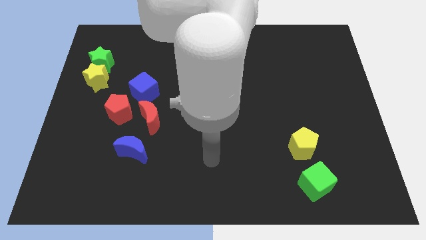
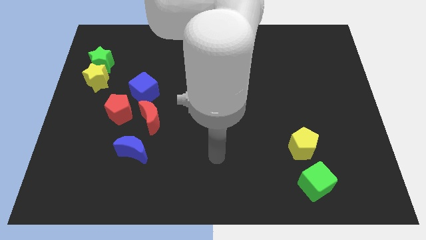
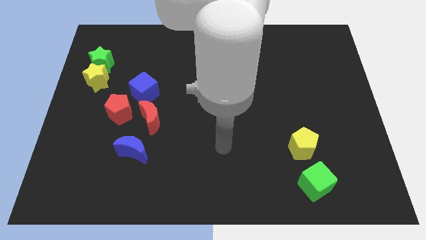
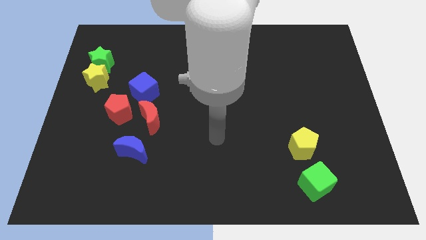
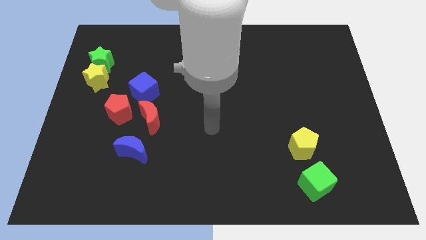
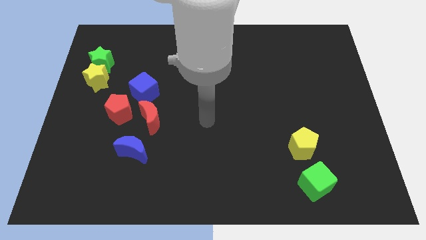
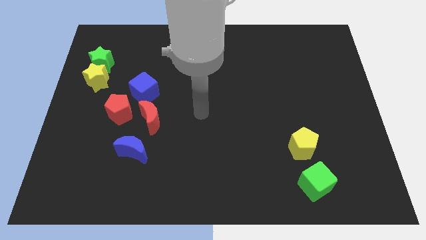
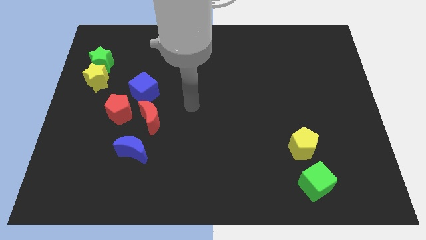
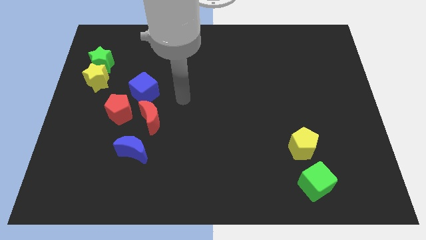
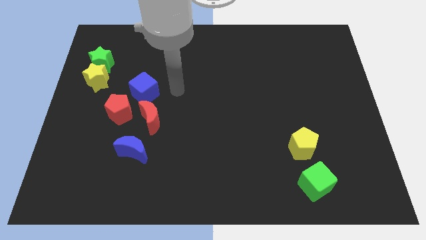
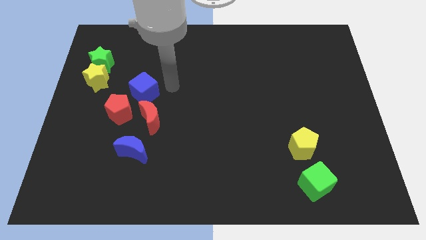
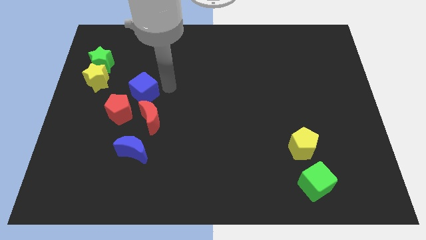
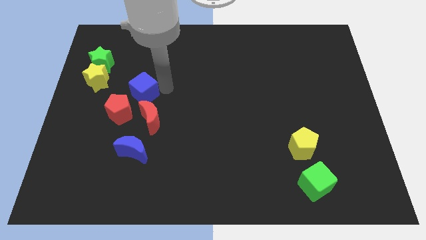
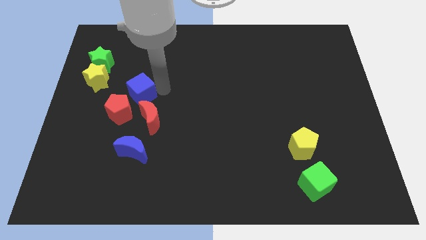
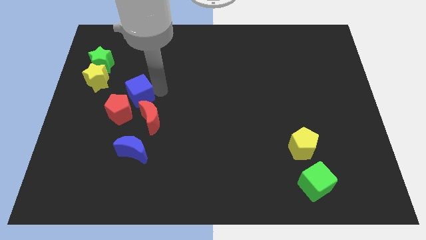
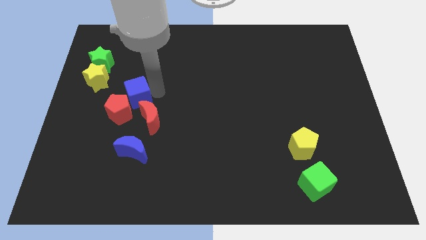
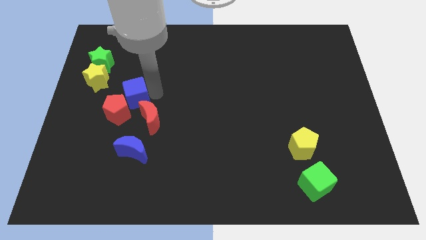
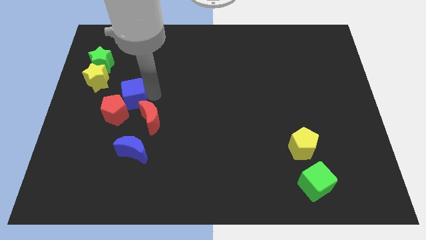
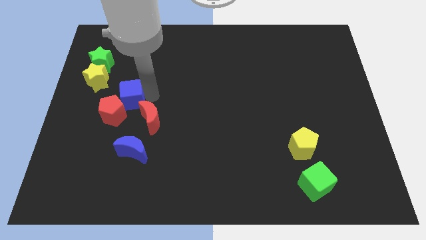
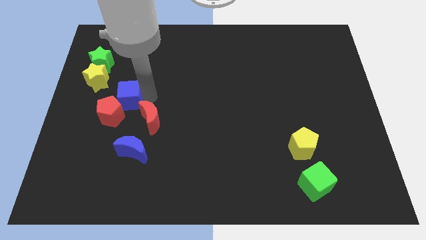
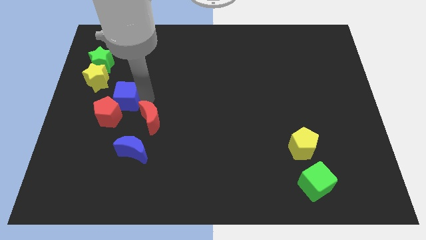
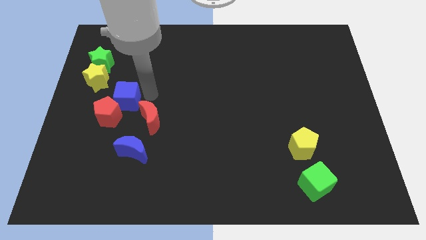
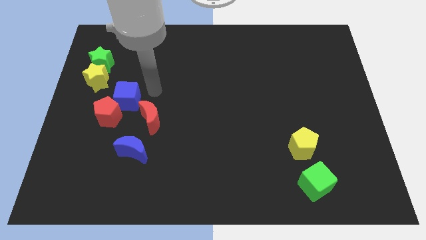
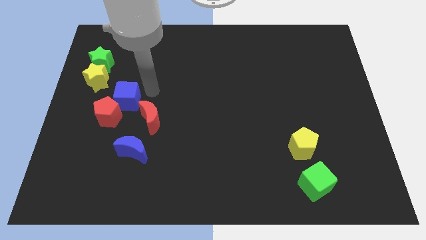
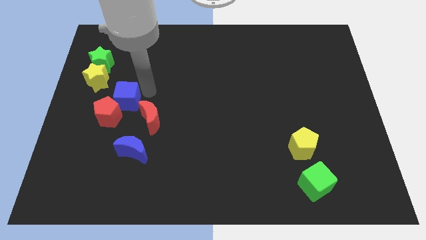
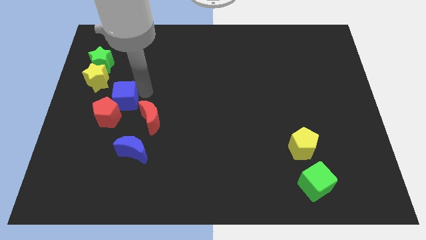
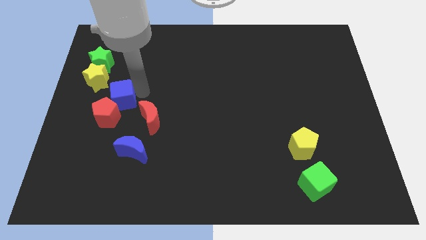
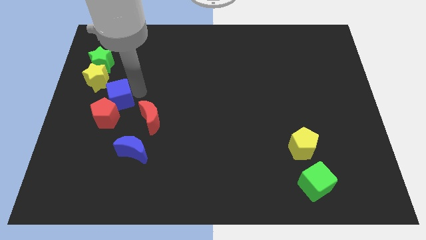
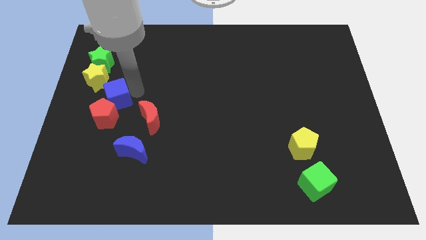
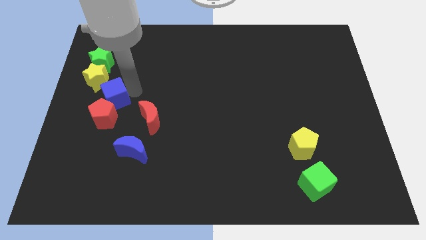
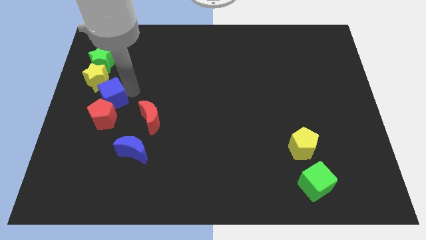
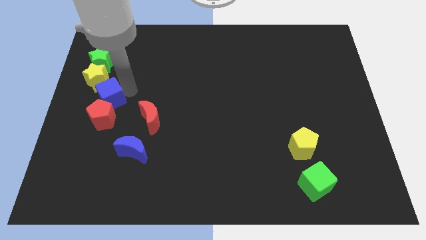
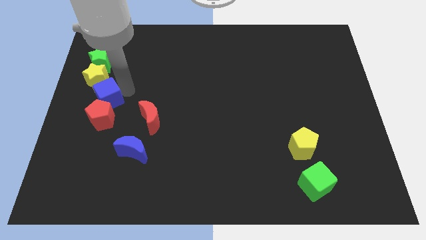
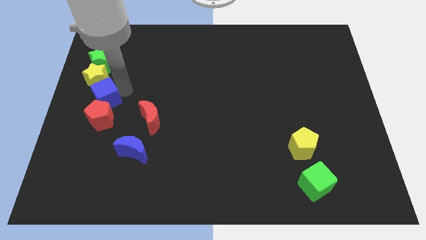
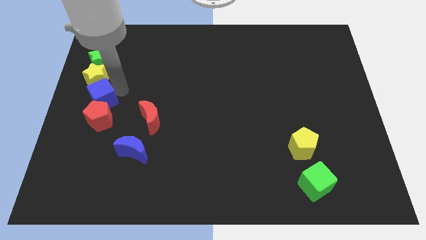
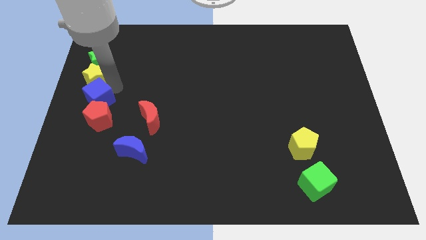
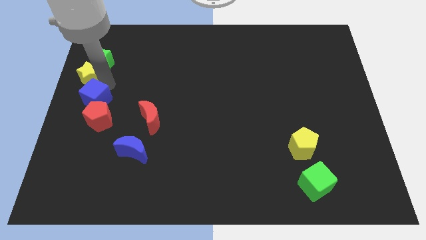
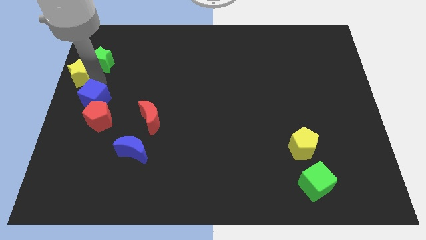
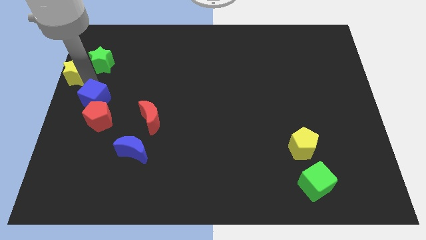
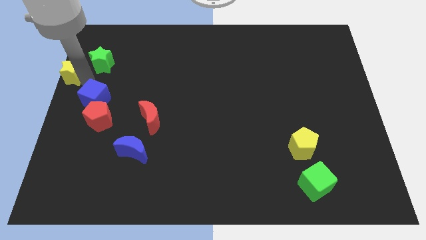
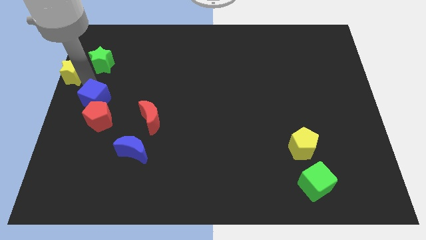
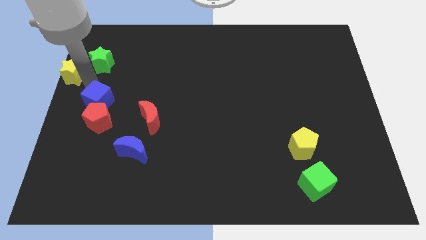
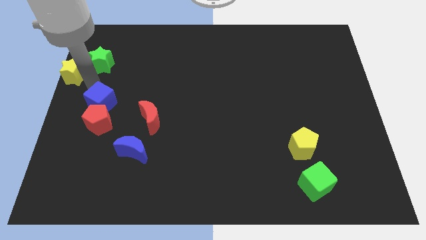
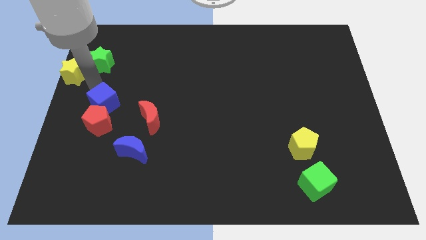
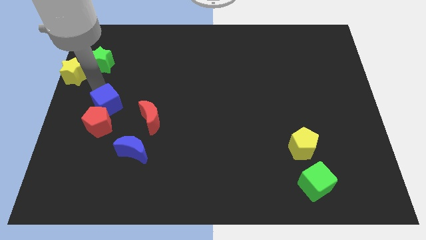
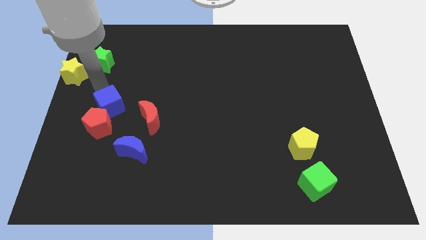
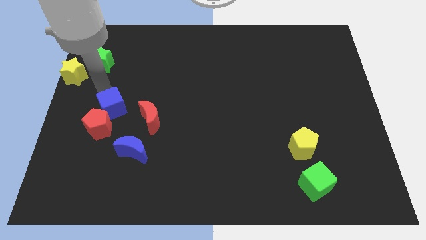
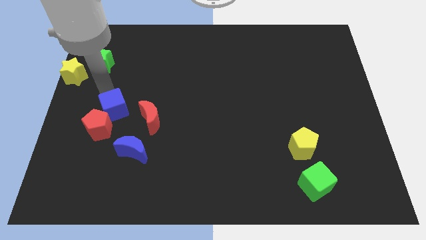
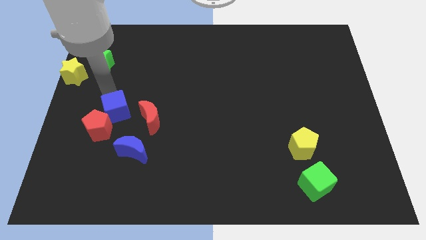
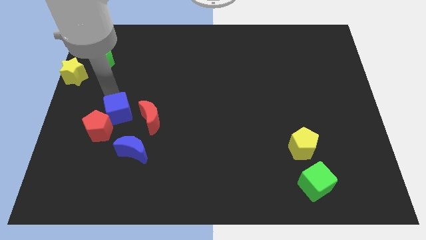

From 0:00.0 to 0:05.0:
push the blue cube diagonally up and to the left of the blue moon

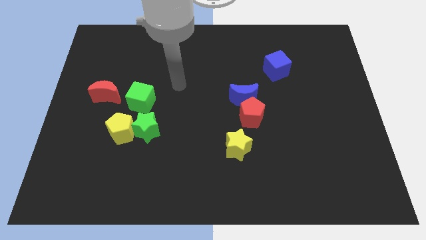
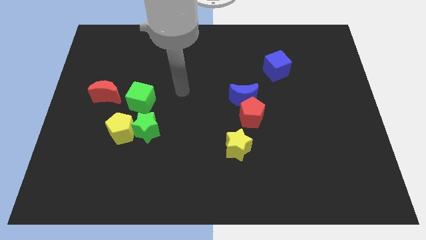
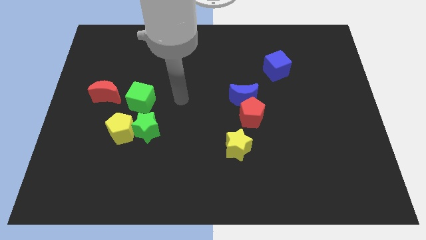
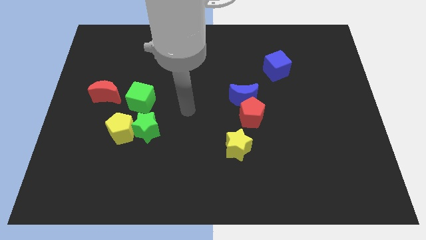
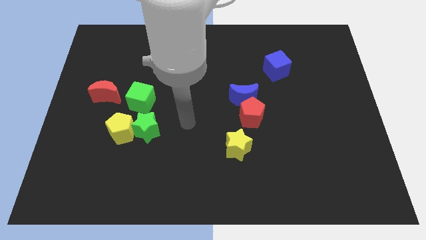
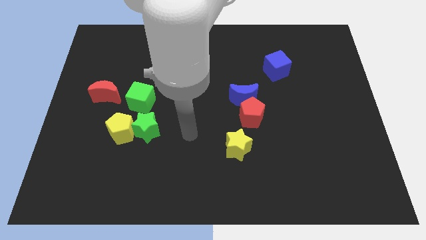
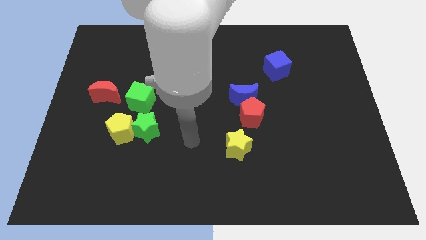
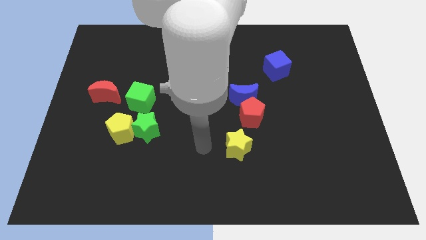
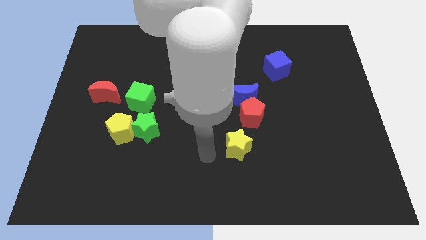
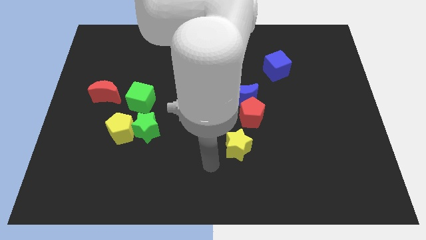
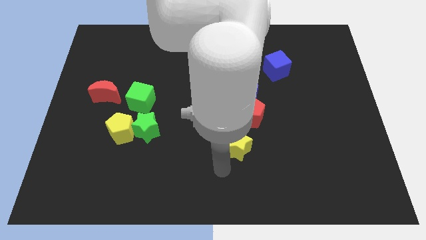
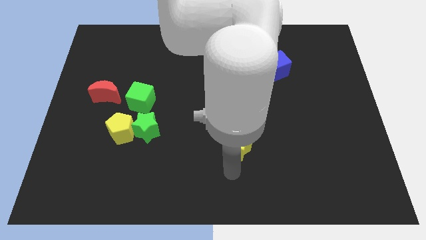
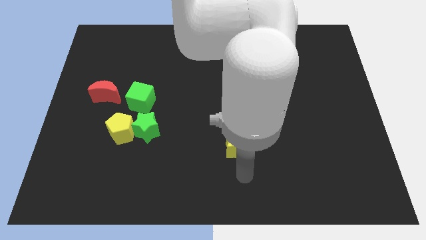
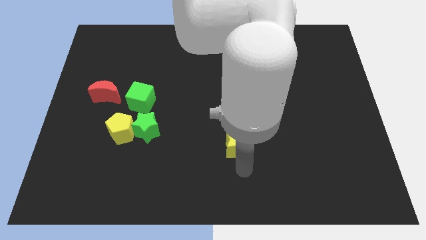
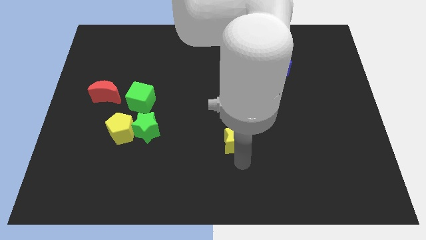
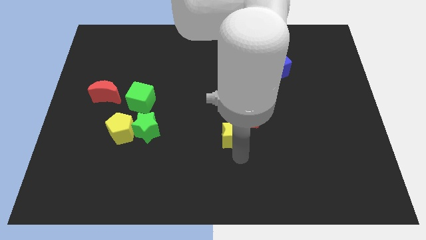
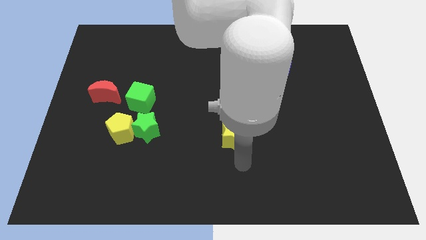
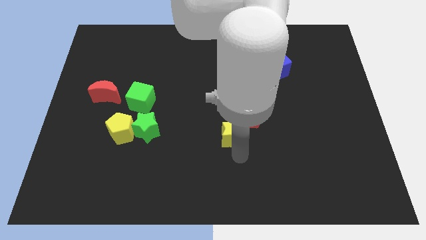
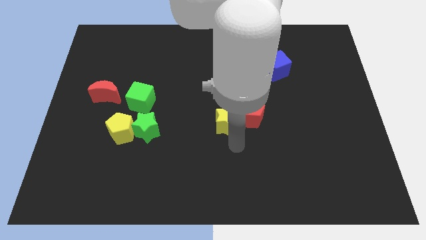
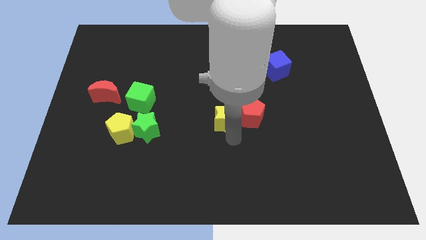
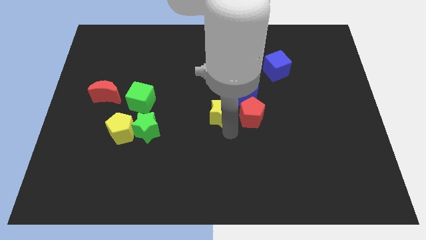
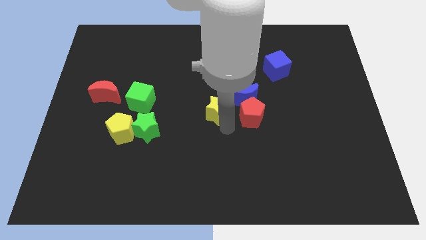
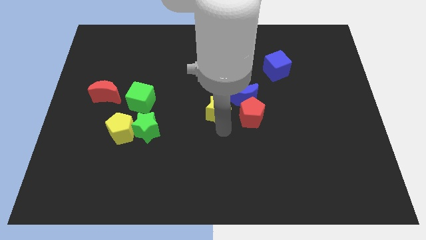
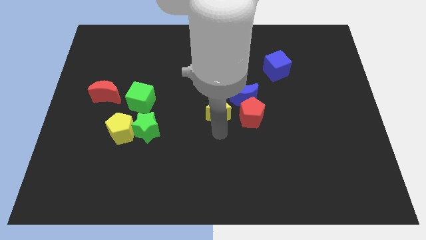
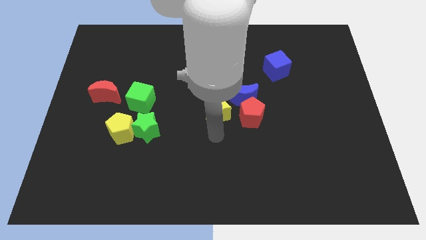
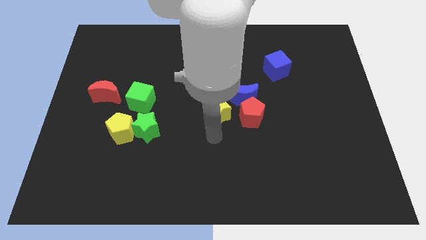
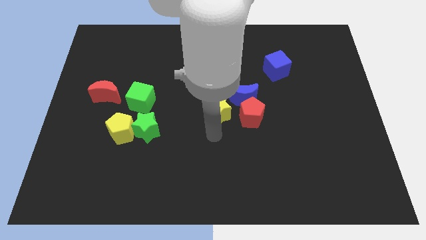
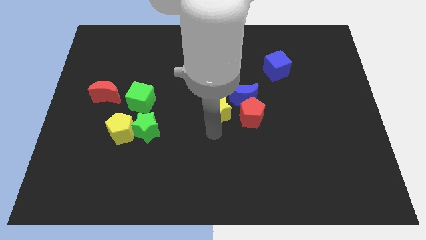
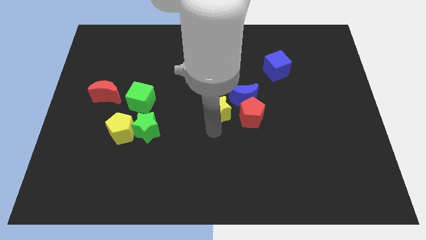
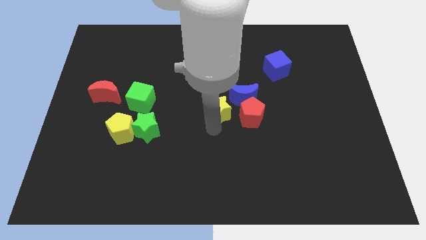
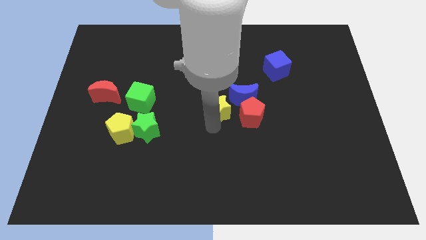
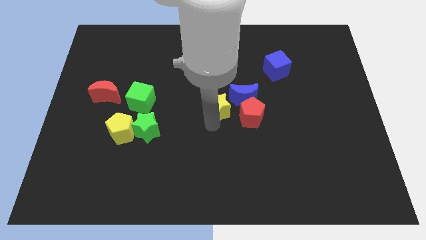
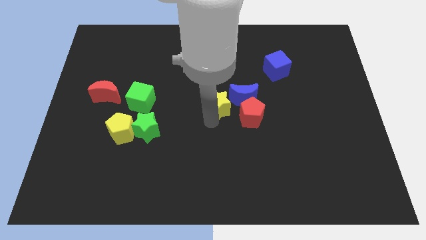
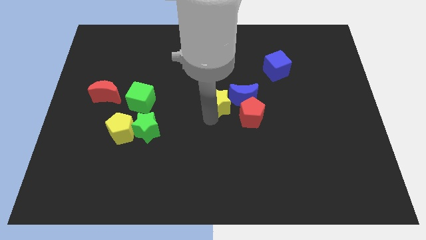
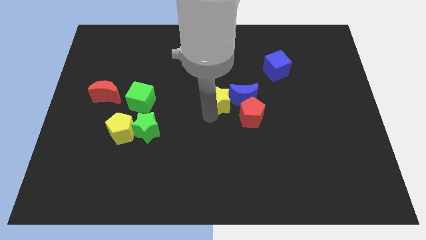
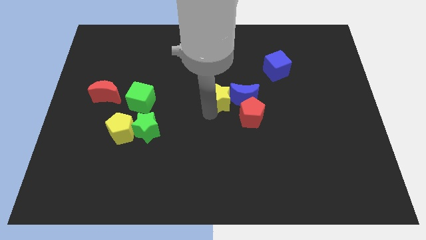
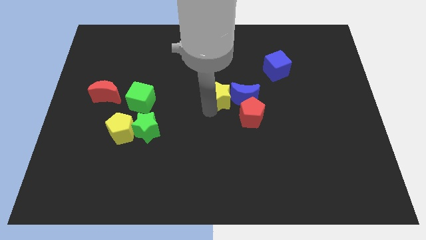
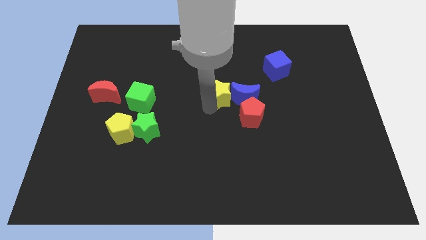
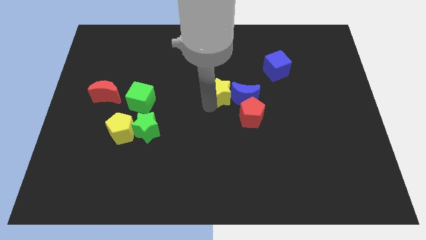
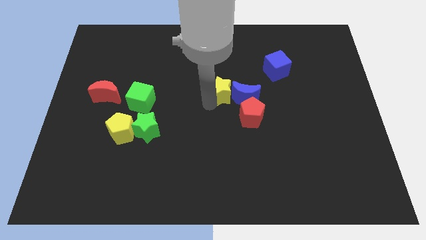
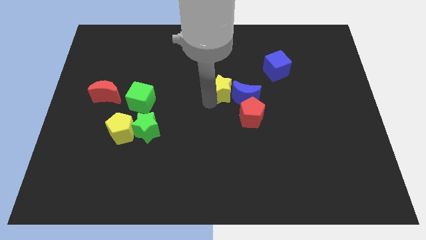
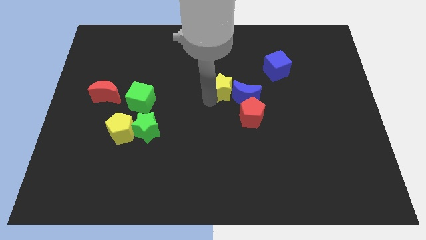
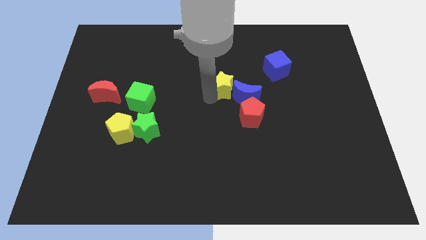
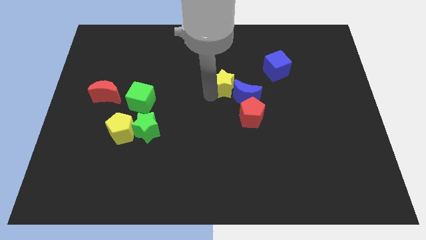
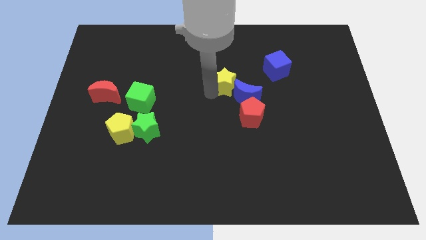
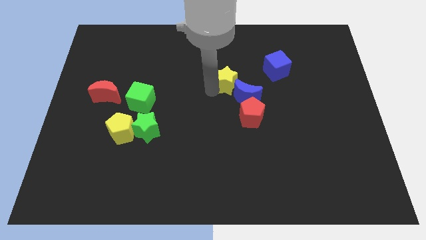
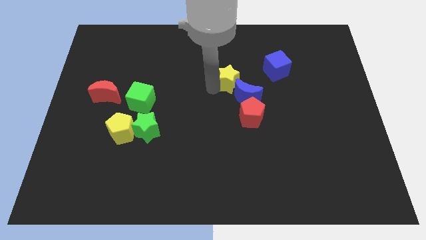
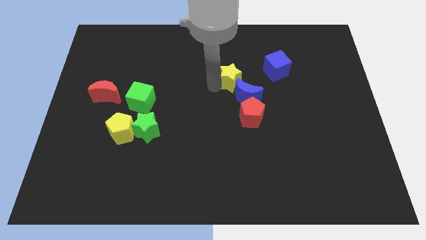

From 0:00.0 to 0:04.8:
push the yellow star to the top of the red pentagon
